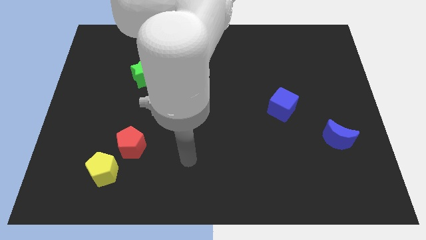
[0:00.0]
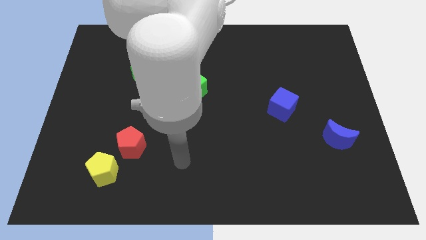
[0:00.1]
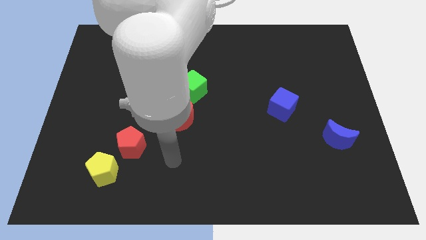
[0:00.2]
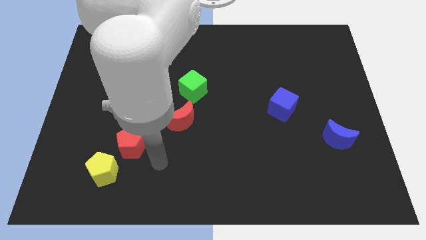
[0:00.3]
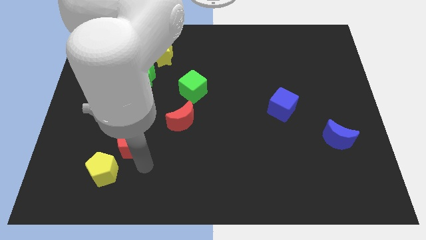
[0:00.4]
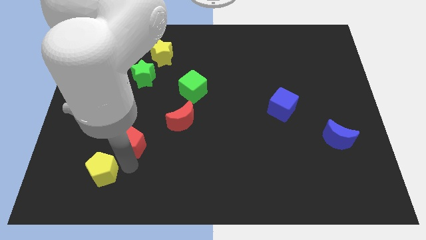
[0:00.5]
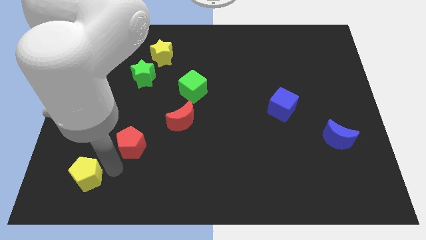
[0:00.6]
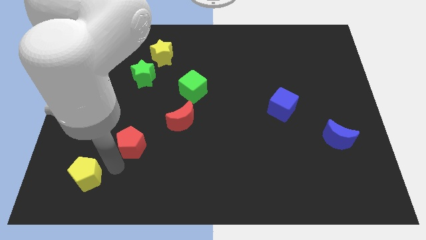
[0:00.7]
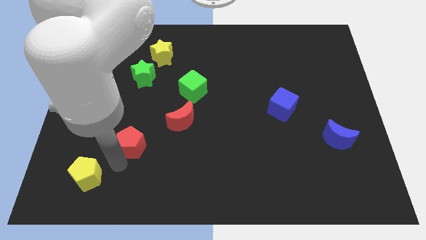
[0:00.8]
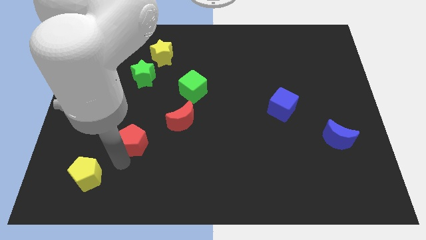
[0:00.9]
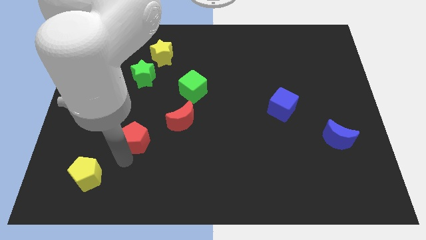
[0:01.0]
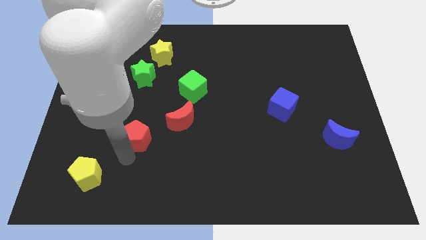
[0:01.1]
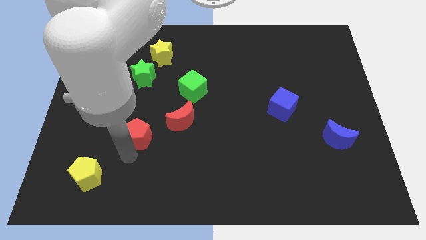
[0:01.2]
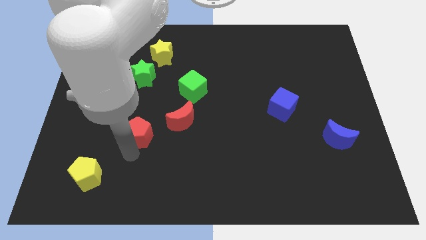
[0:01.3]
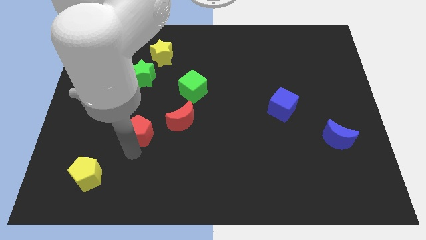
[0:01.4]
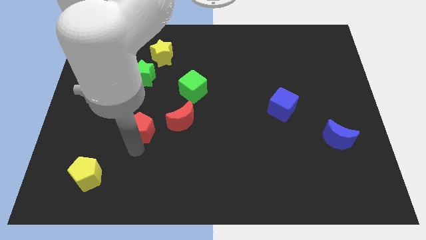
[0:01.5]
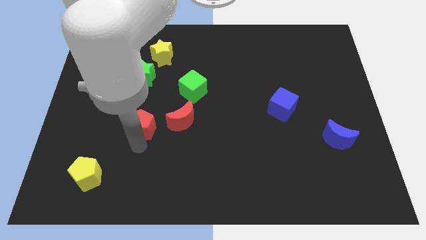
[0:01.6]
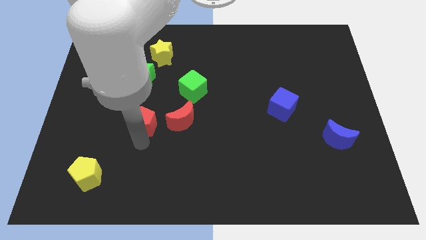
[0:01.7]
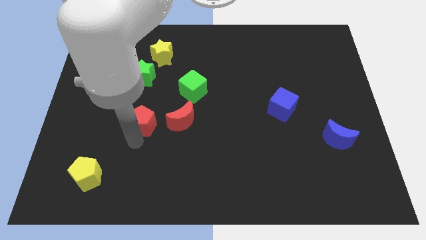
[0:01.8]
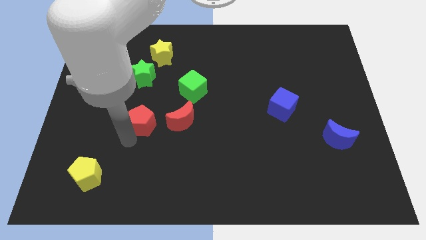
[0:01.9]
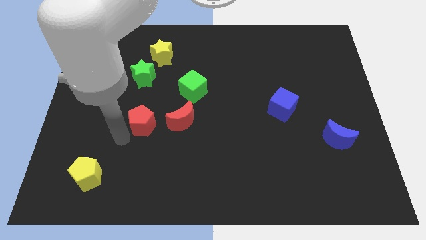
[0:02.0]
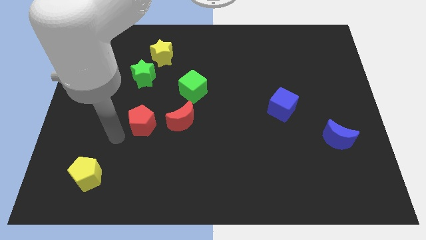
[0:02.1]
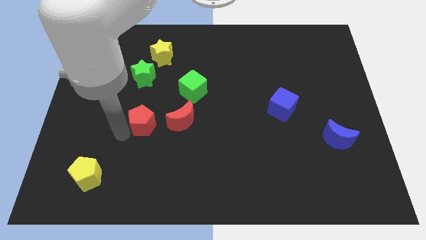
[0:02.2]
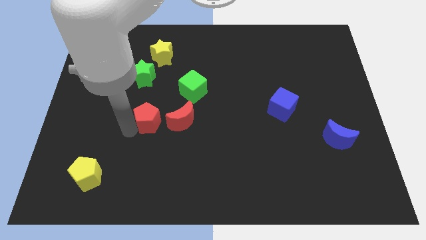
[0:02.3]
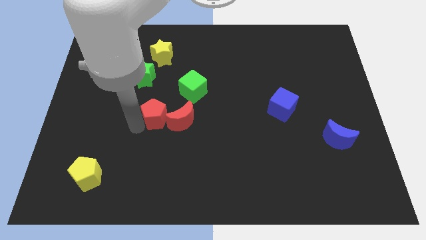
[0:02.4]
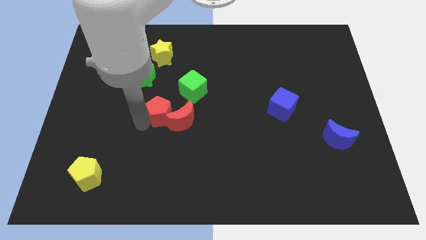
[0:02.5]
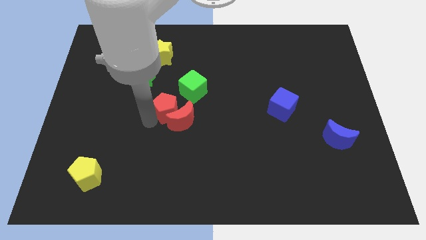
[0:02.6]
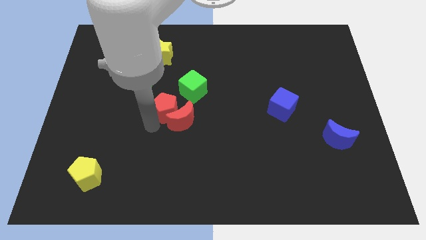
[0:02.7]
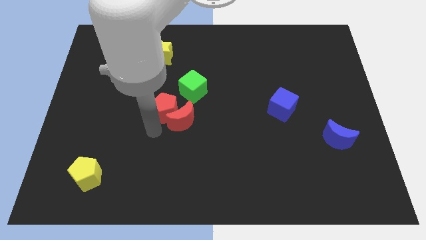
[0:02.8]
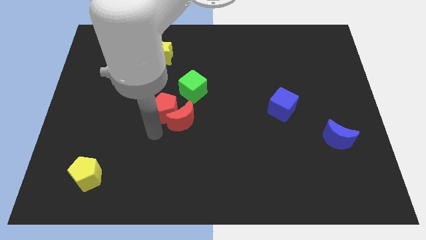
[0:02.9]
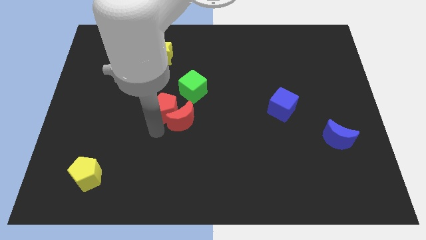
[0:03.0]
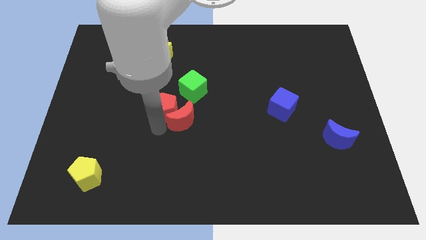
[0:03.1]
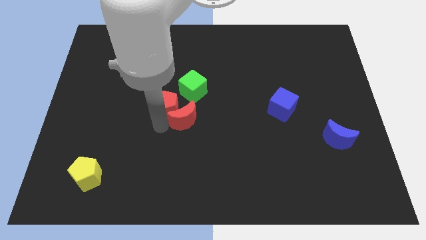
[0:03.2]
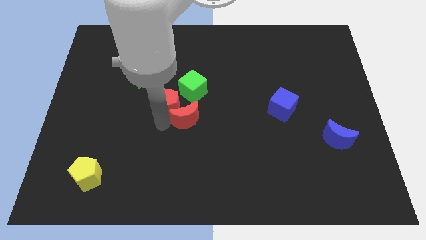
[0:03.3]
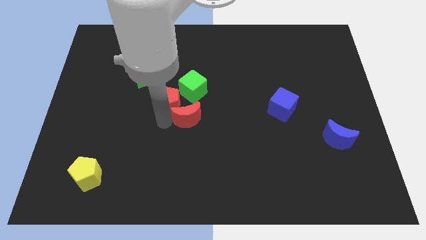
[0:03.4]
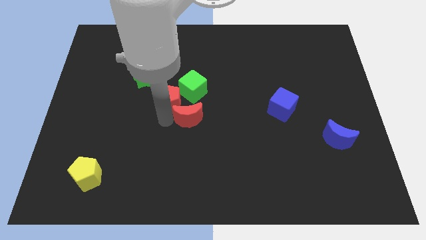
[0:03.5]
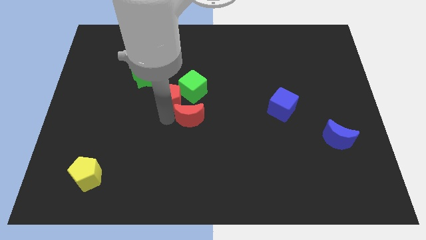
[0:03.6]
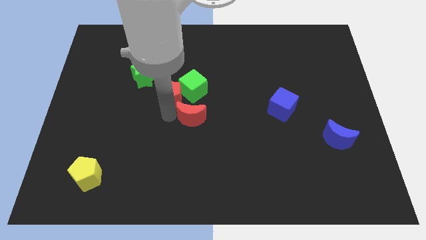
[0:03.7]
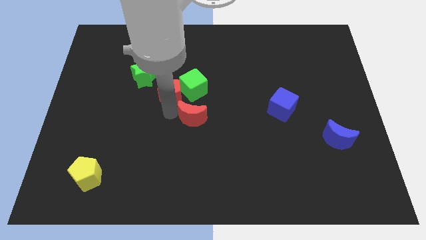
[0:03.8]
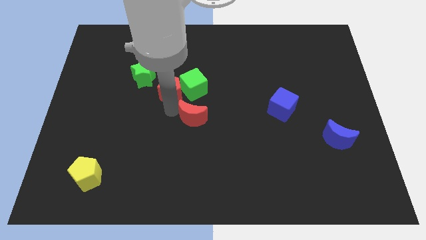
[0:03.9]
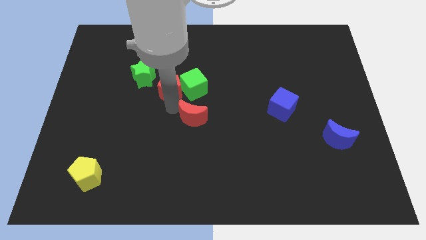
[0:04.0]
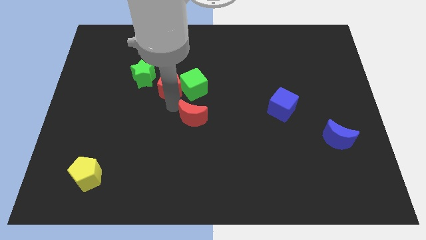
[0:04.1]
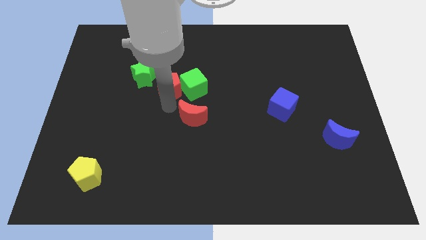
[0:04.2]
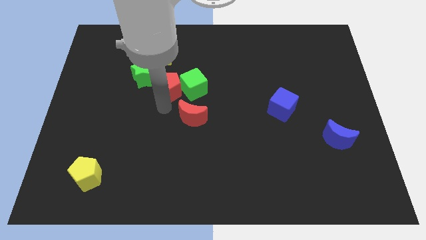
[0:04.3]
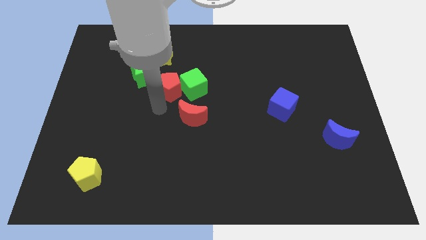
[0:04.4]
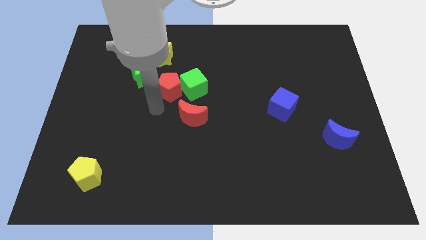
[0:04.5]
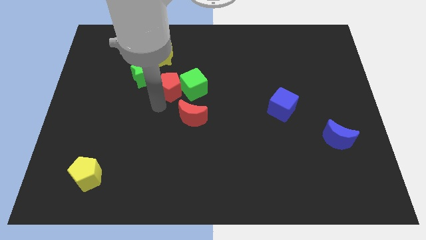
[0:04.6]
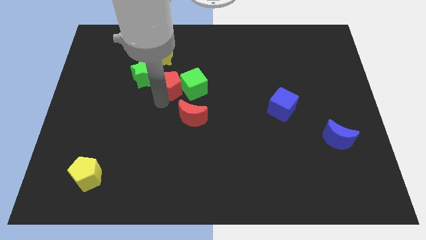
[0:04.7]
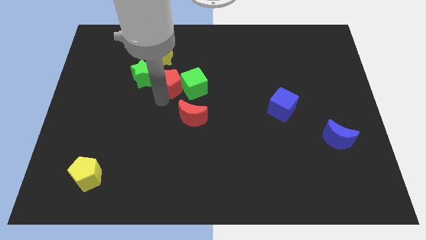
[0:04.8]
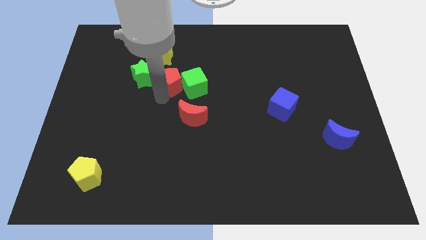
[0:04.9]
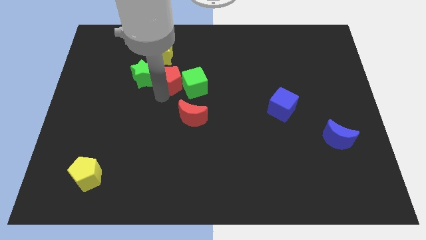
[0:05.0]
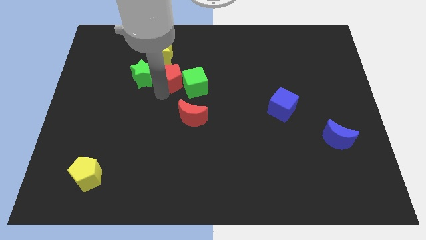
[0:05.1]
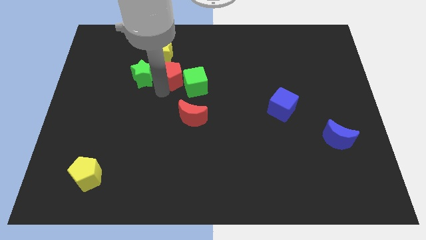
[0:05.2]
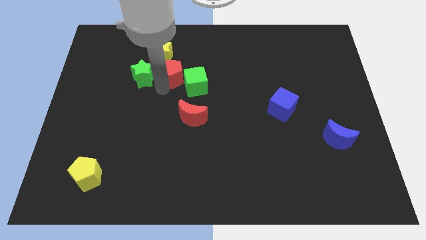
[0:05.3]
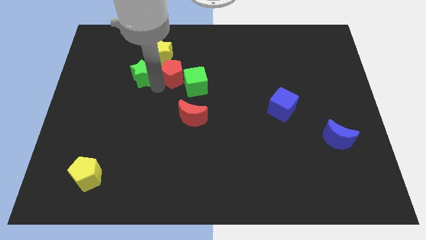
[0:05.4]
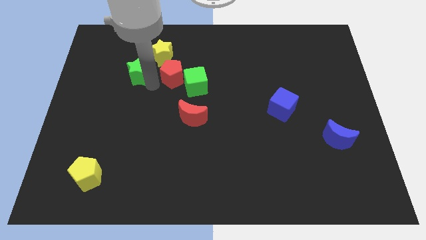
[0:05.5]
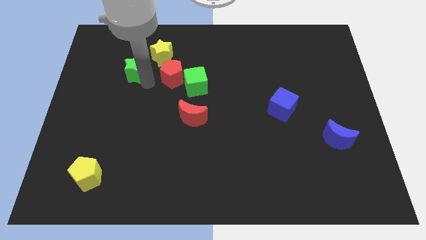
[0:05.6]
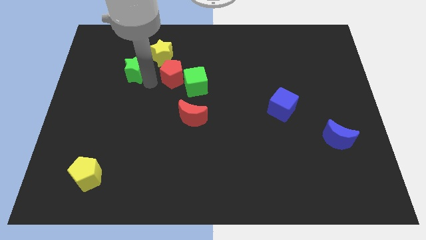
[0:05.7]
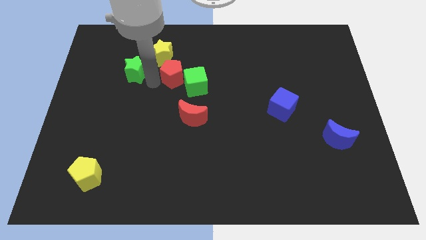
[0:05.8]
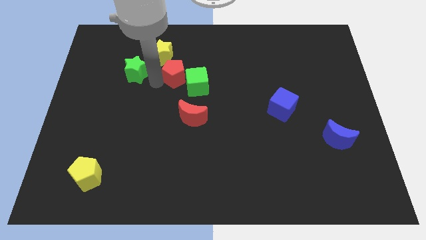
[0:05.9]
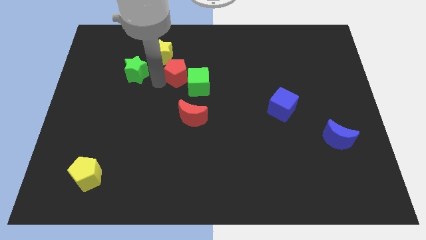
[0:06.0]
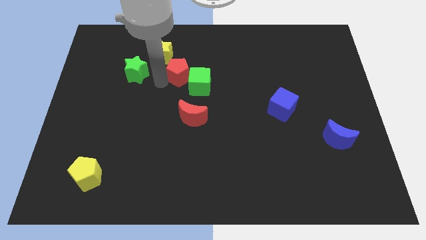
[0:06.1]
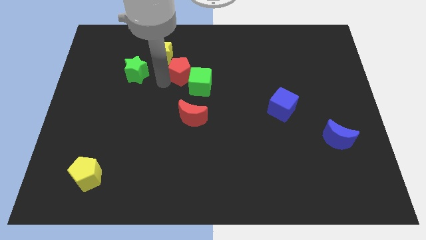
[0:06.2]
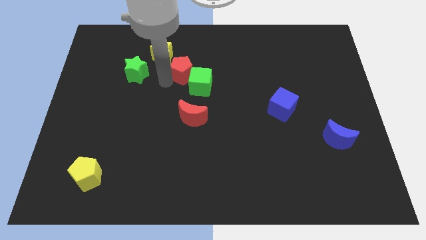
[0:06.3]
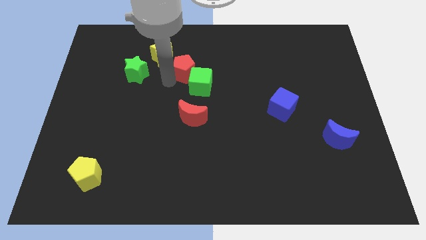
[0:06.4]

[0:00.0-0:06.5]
slide the red pentagon upwards and to the right

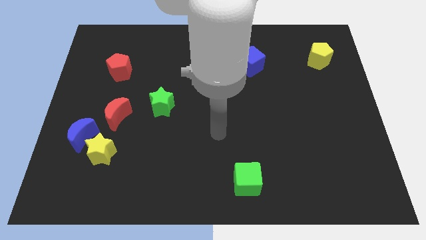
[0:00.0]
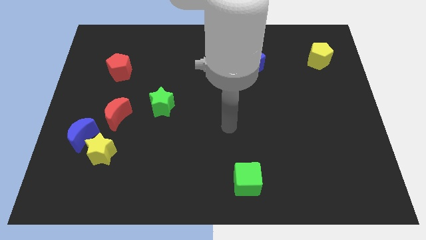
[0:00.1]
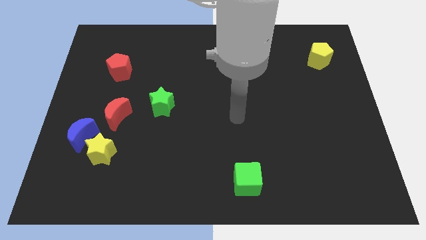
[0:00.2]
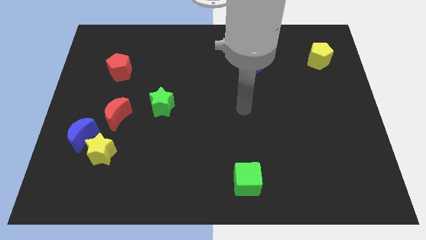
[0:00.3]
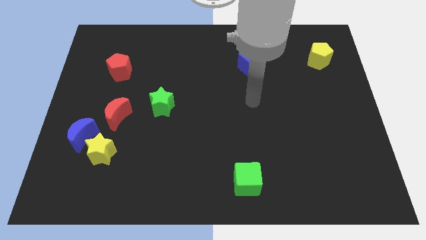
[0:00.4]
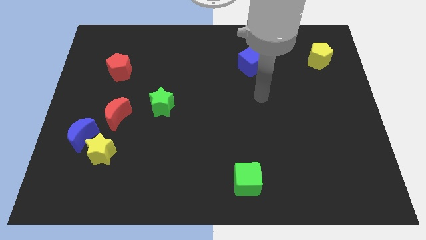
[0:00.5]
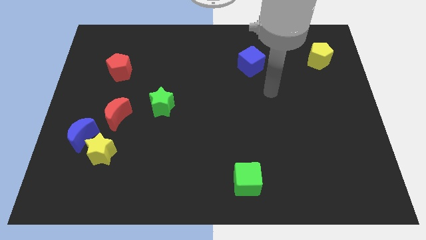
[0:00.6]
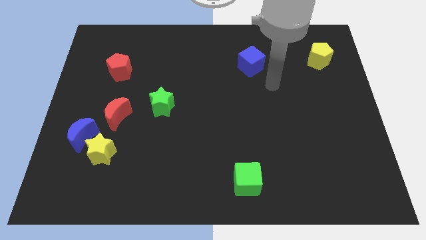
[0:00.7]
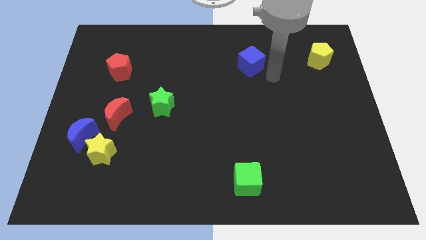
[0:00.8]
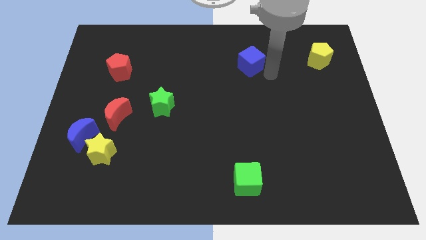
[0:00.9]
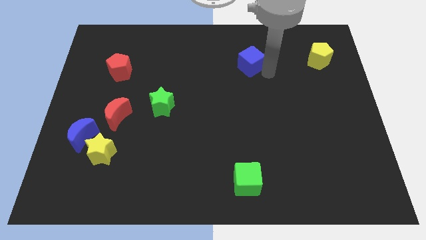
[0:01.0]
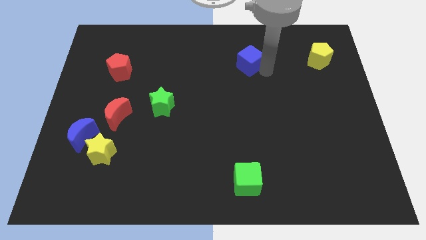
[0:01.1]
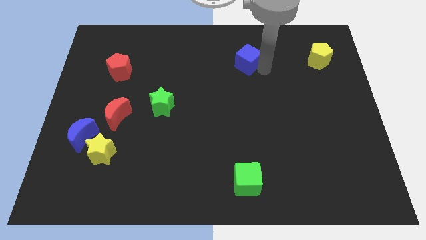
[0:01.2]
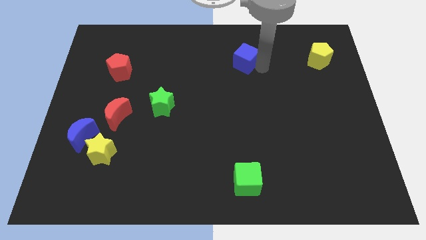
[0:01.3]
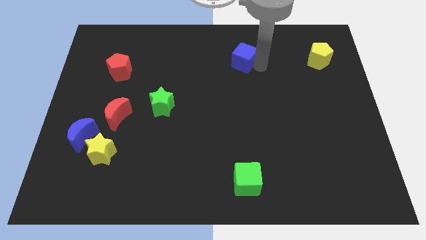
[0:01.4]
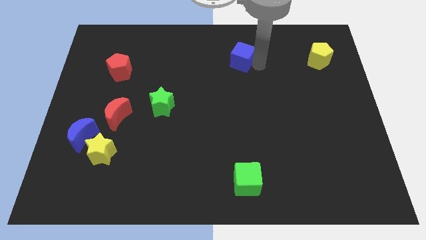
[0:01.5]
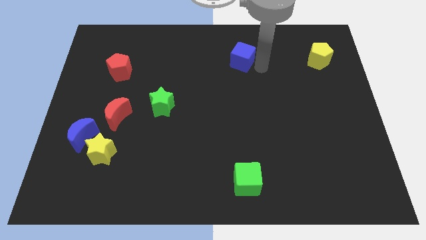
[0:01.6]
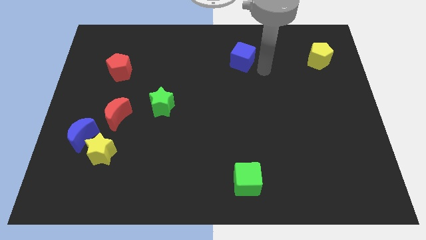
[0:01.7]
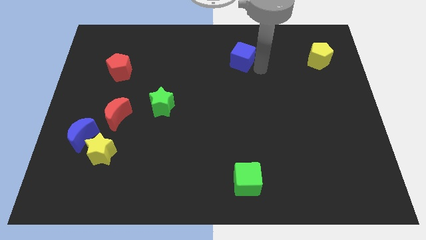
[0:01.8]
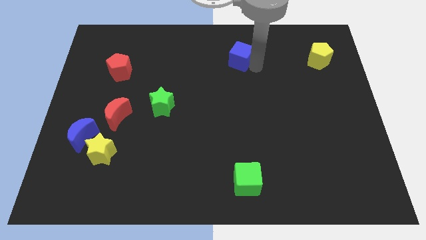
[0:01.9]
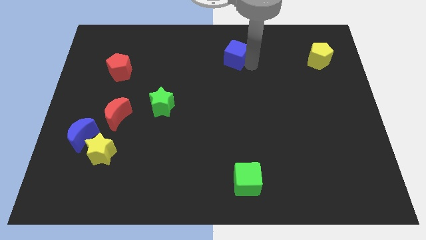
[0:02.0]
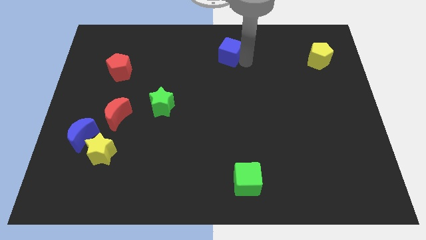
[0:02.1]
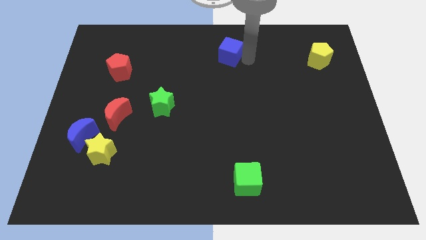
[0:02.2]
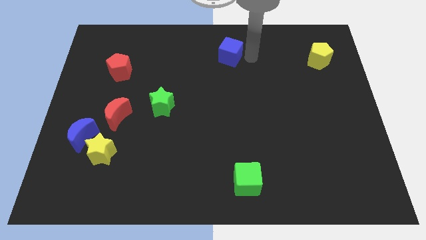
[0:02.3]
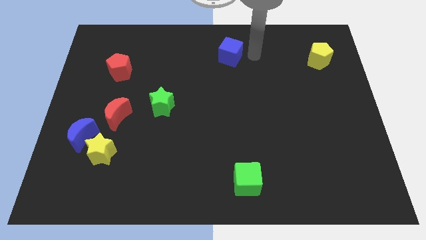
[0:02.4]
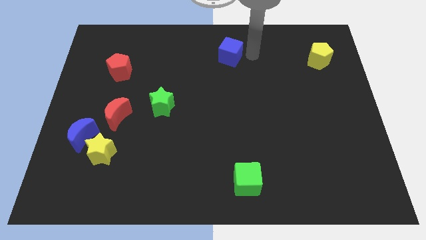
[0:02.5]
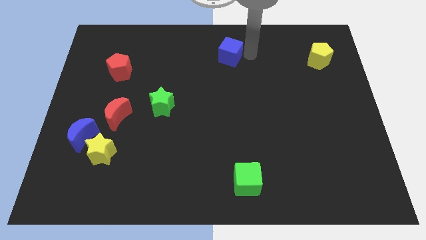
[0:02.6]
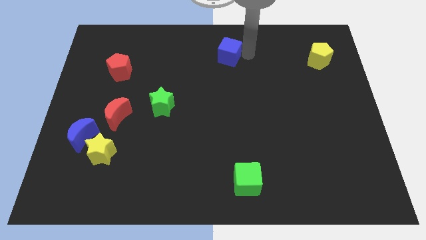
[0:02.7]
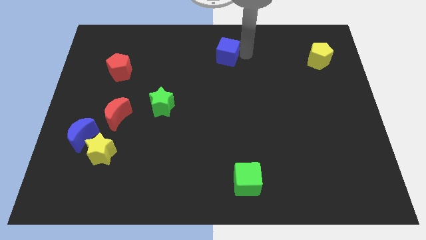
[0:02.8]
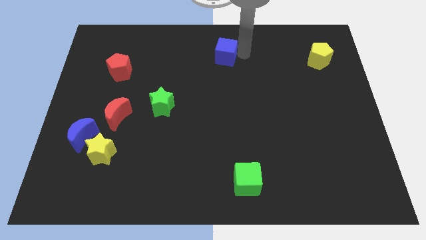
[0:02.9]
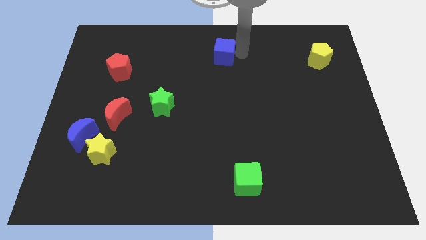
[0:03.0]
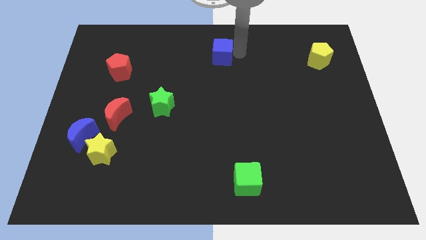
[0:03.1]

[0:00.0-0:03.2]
slightly push the blue cube to the left
